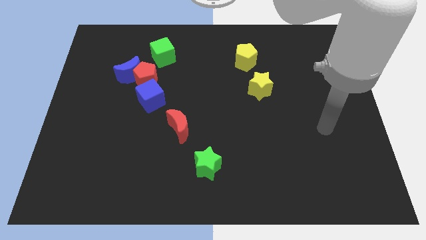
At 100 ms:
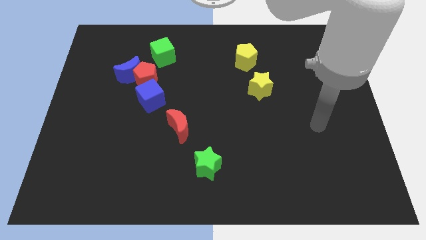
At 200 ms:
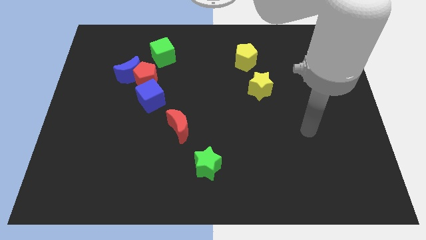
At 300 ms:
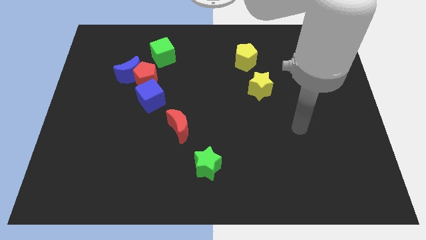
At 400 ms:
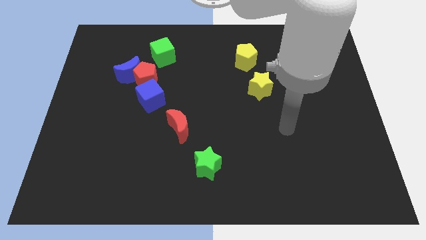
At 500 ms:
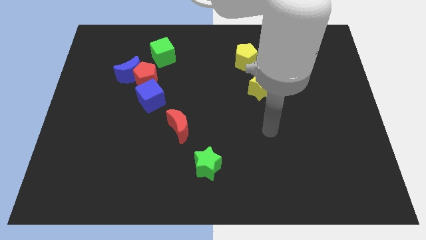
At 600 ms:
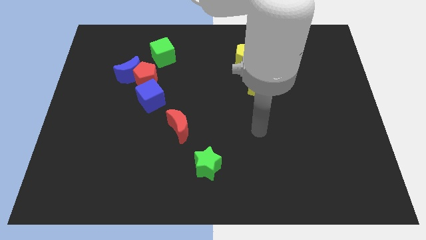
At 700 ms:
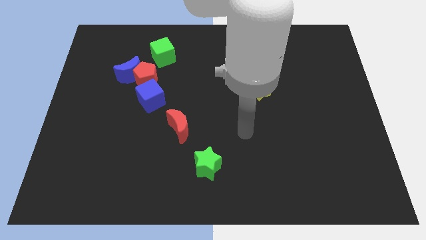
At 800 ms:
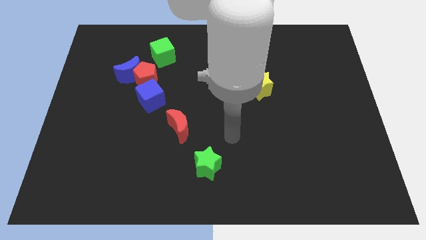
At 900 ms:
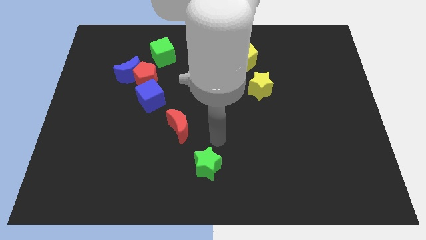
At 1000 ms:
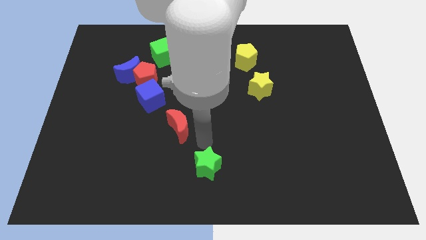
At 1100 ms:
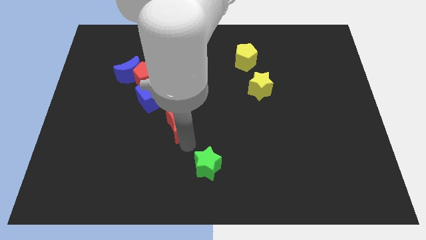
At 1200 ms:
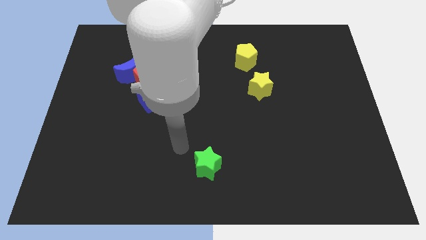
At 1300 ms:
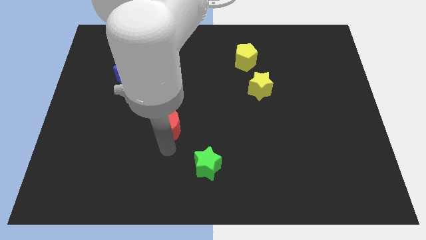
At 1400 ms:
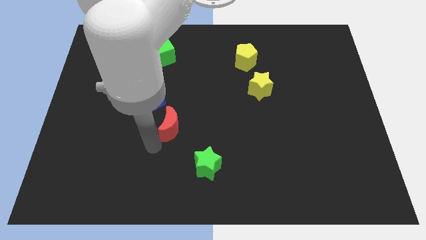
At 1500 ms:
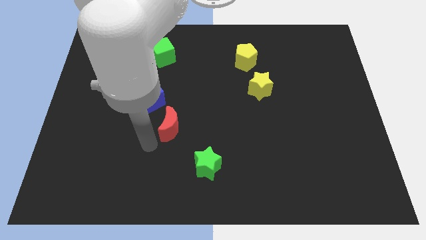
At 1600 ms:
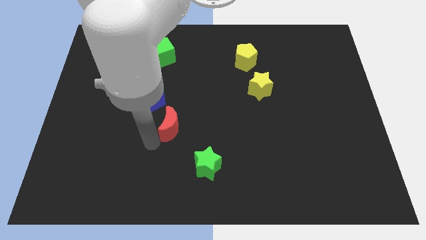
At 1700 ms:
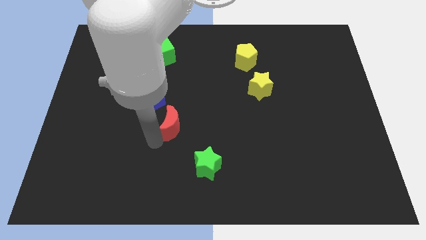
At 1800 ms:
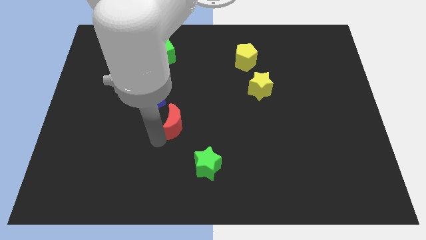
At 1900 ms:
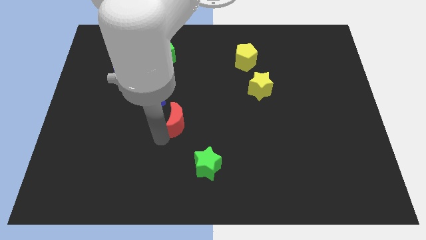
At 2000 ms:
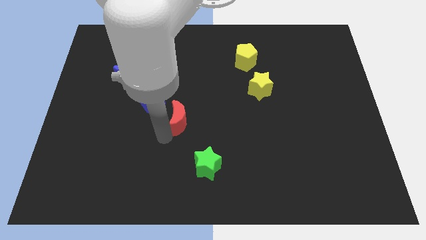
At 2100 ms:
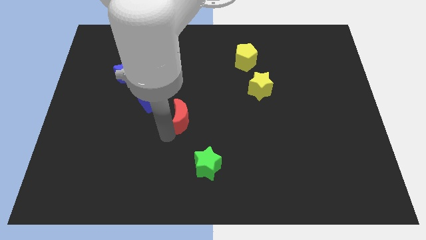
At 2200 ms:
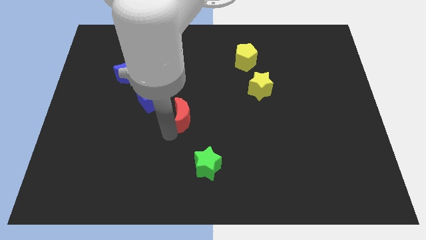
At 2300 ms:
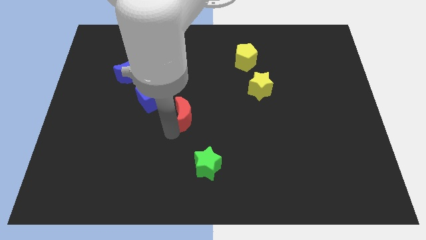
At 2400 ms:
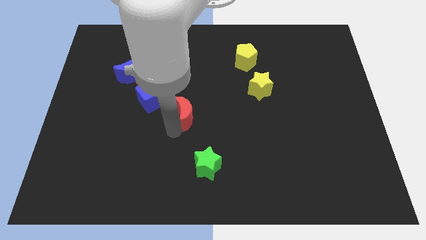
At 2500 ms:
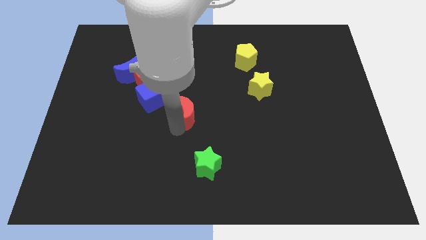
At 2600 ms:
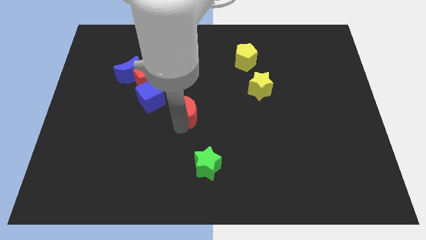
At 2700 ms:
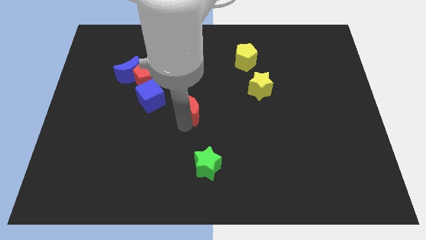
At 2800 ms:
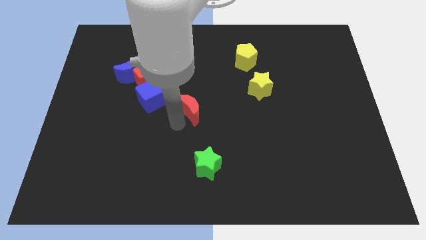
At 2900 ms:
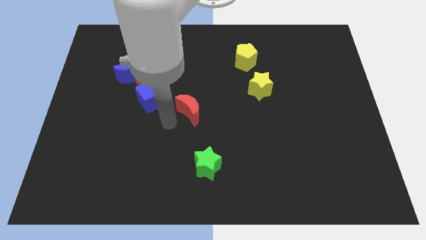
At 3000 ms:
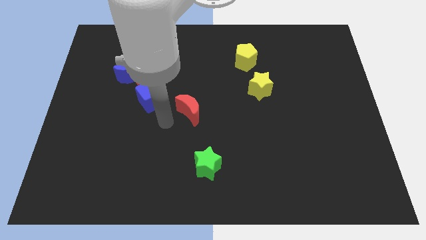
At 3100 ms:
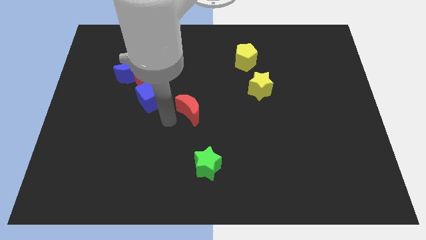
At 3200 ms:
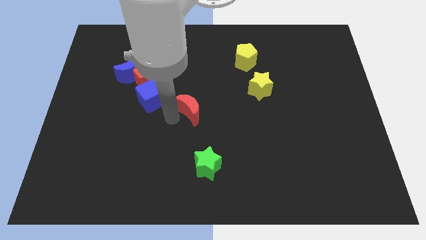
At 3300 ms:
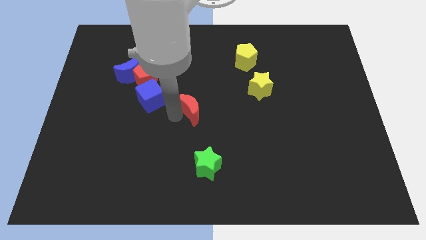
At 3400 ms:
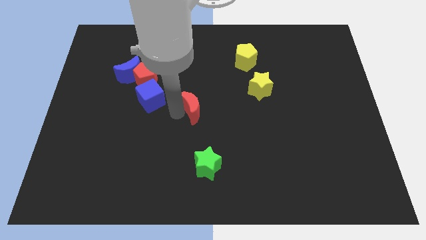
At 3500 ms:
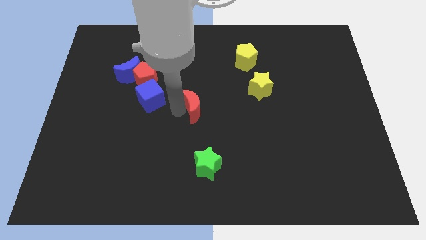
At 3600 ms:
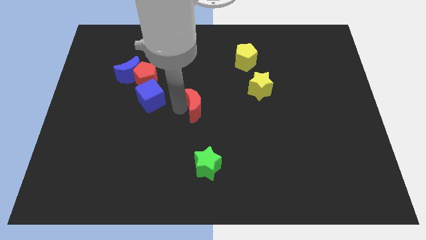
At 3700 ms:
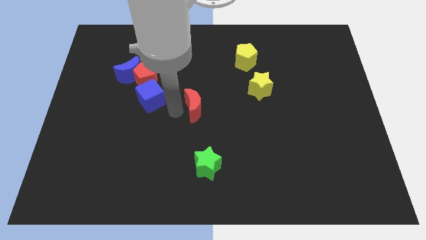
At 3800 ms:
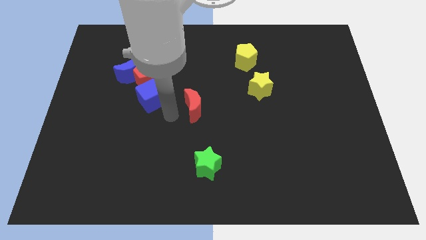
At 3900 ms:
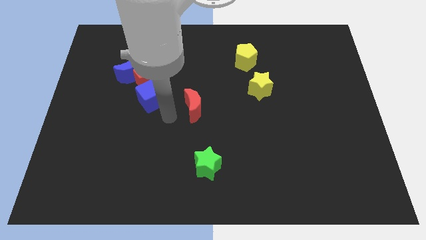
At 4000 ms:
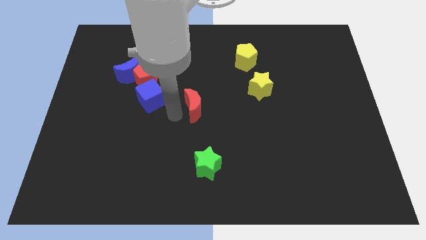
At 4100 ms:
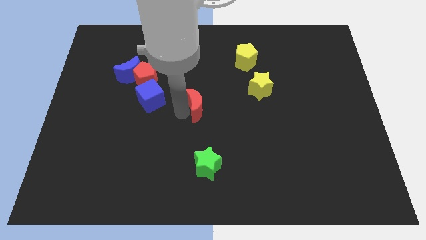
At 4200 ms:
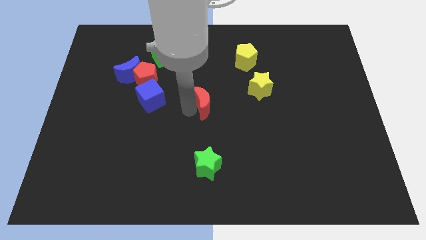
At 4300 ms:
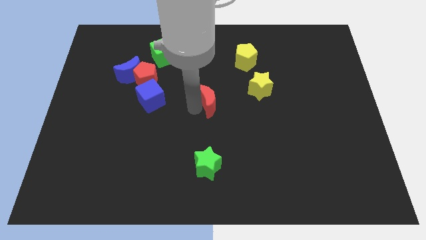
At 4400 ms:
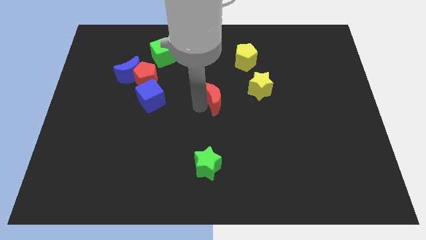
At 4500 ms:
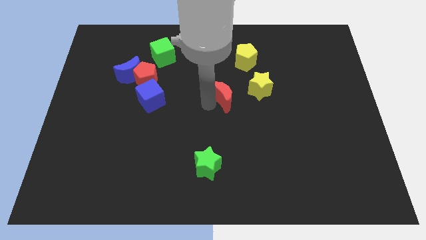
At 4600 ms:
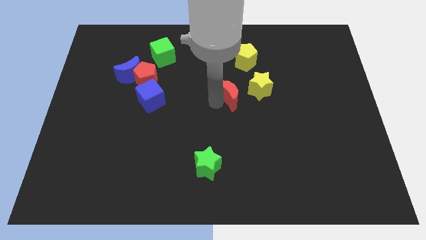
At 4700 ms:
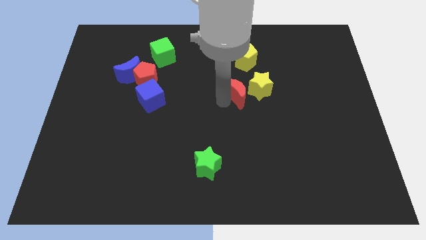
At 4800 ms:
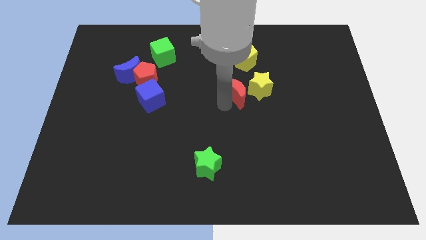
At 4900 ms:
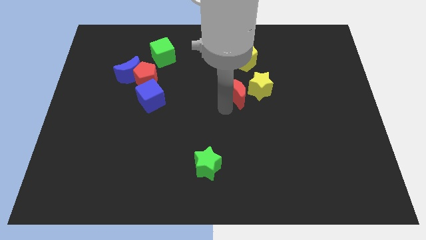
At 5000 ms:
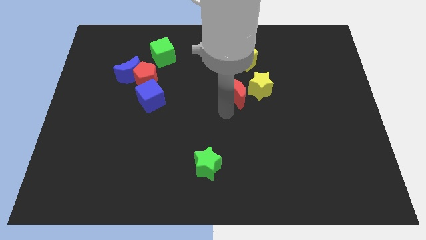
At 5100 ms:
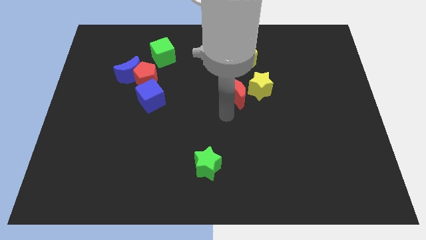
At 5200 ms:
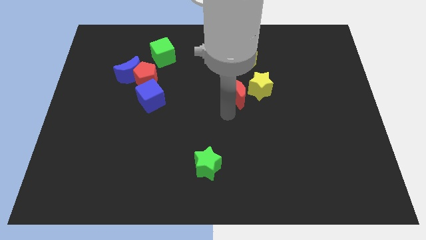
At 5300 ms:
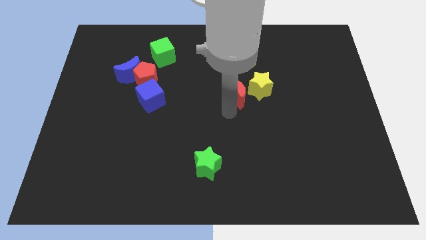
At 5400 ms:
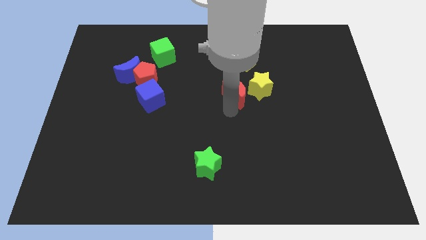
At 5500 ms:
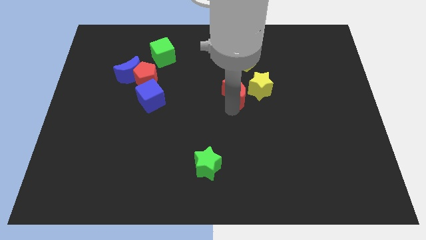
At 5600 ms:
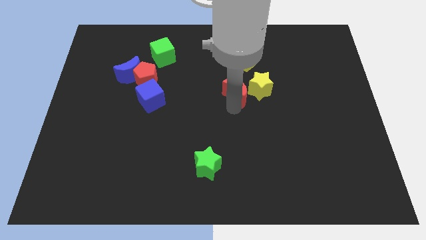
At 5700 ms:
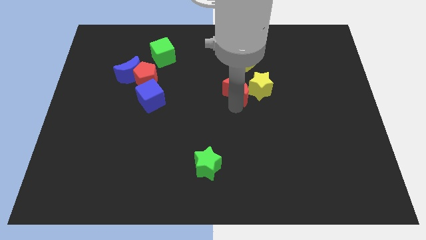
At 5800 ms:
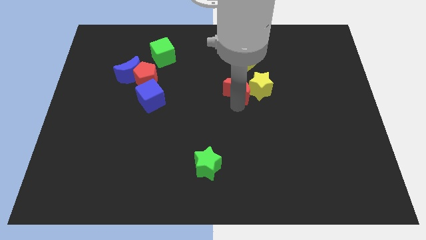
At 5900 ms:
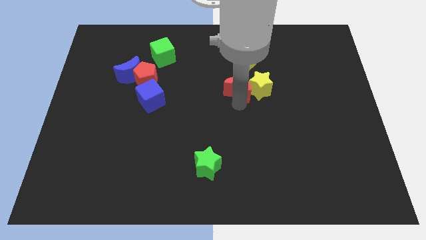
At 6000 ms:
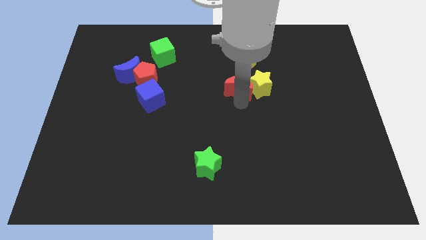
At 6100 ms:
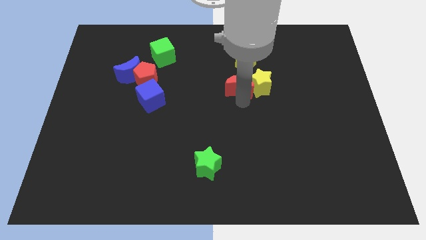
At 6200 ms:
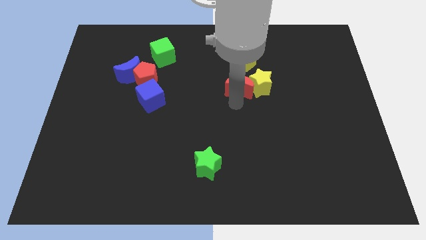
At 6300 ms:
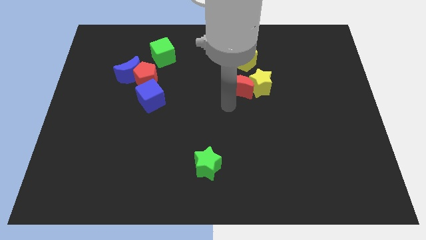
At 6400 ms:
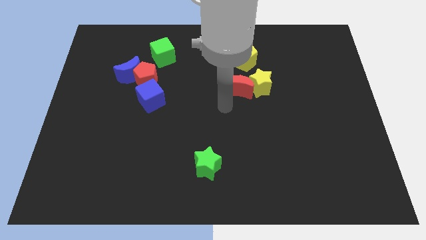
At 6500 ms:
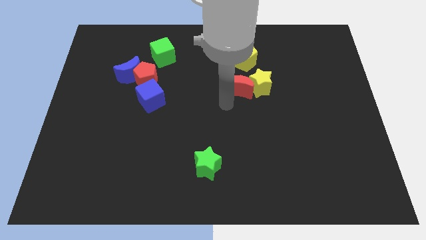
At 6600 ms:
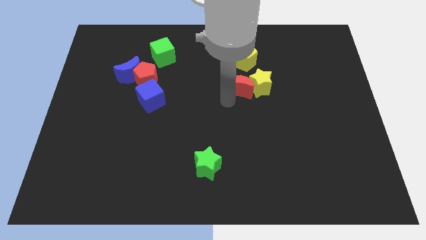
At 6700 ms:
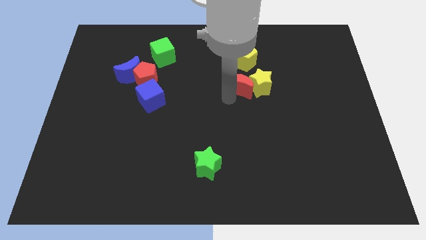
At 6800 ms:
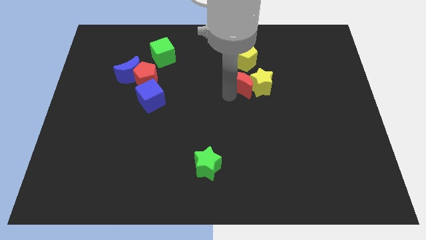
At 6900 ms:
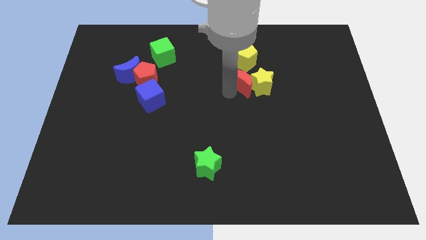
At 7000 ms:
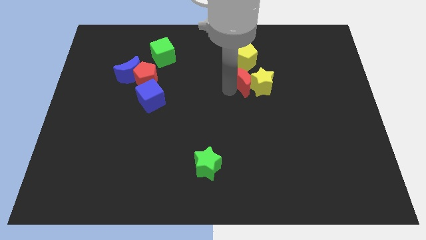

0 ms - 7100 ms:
move the red moon up and then right

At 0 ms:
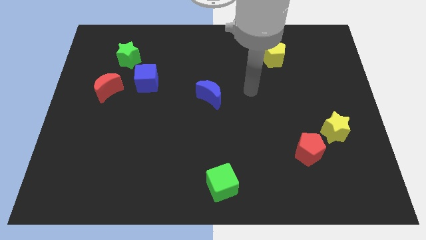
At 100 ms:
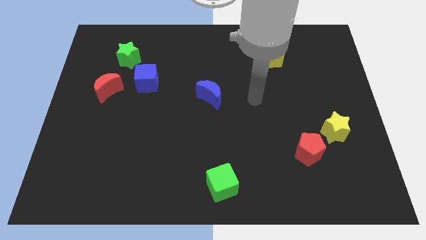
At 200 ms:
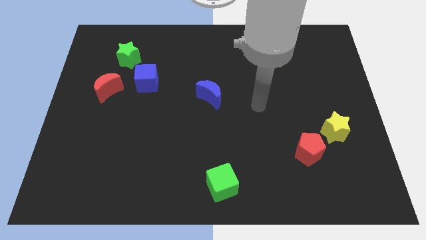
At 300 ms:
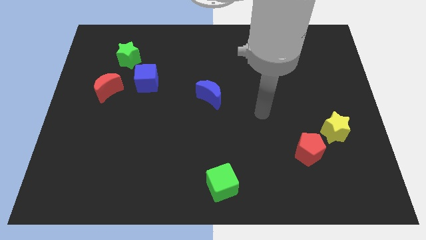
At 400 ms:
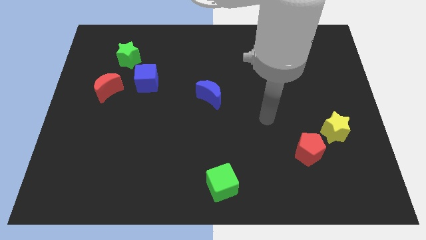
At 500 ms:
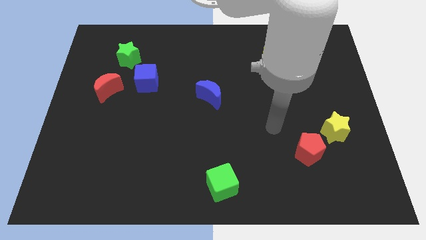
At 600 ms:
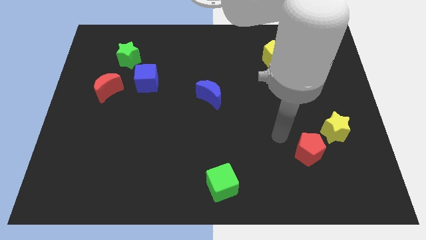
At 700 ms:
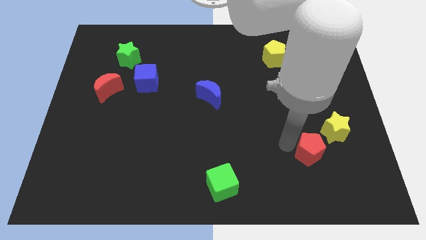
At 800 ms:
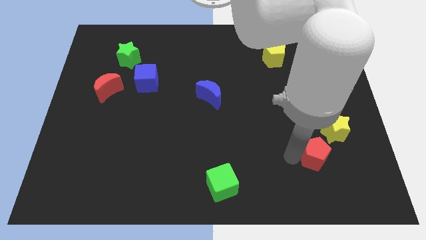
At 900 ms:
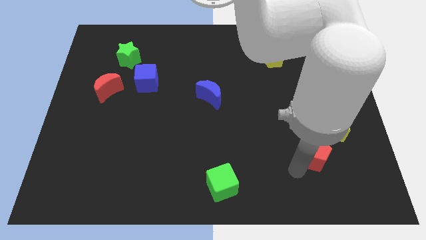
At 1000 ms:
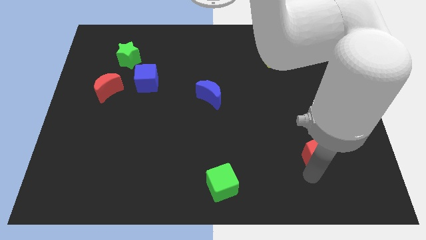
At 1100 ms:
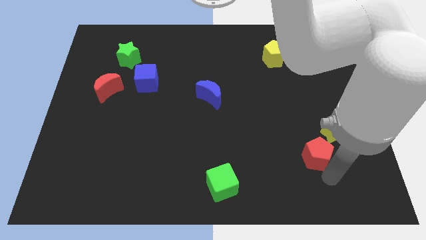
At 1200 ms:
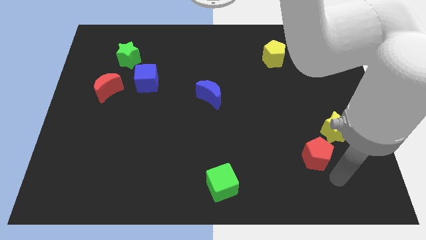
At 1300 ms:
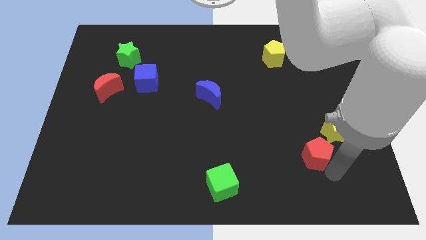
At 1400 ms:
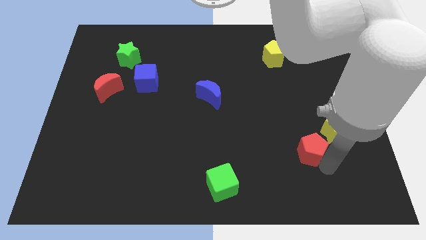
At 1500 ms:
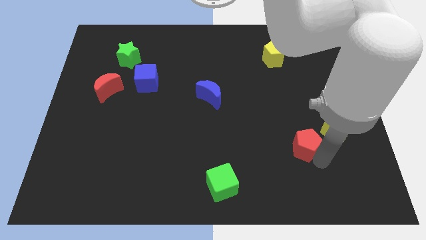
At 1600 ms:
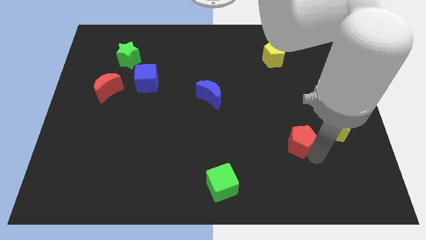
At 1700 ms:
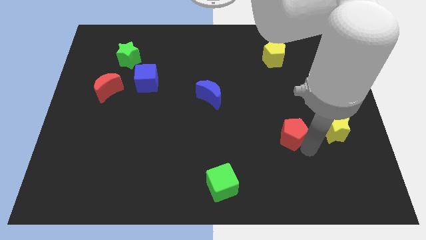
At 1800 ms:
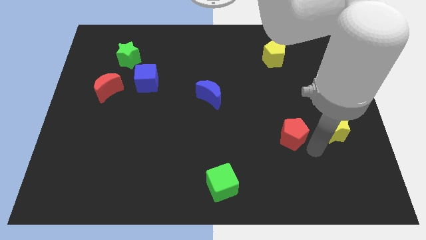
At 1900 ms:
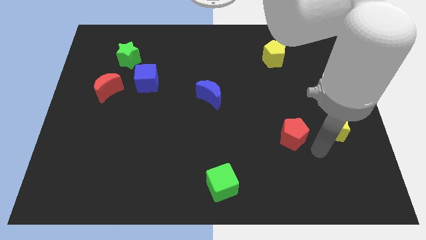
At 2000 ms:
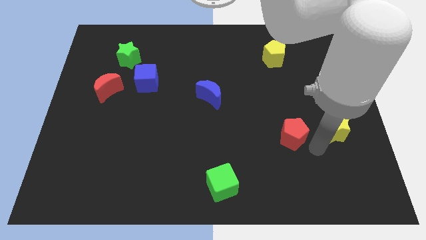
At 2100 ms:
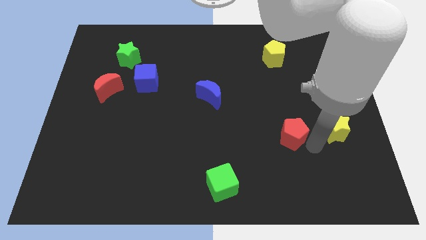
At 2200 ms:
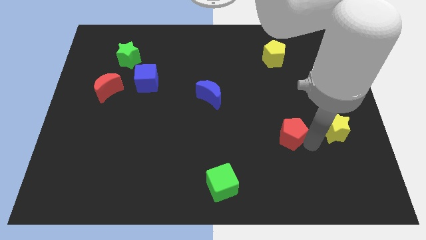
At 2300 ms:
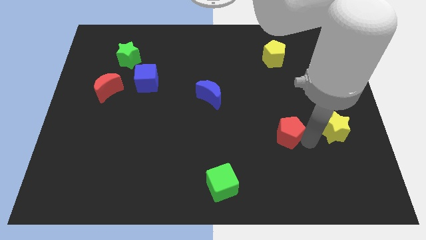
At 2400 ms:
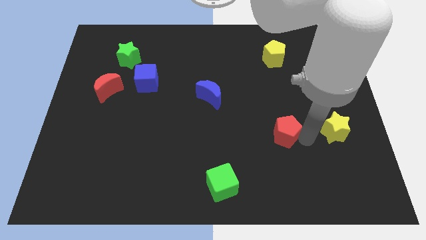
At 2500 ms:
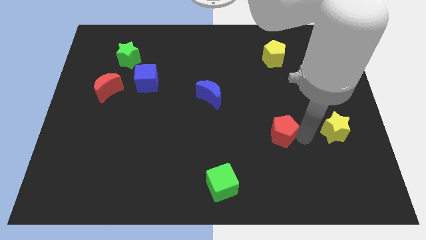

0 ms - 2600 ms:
slightly slide the red pentagon up and to the left diagonally
